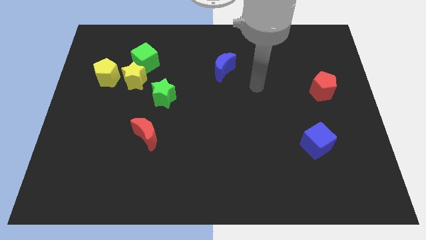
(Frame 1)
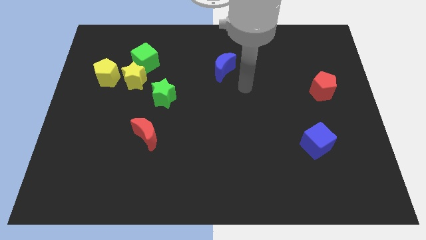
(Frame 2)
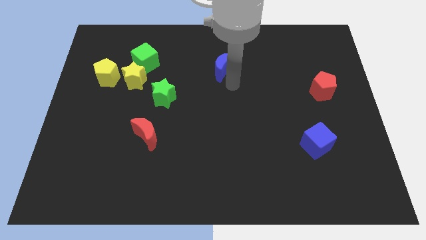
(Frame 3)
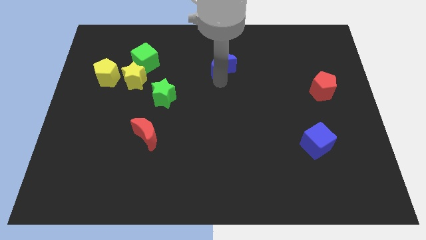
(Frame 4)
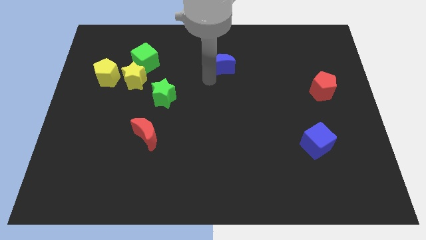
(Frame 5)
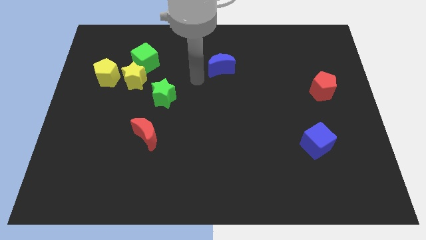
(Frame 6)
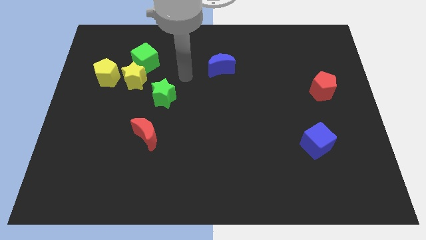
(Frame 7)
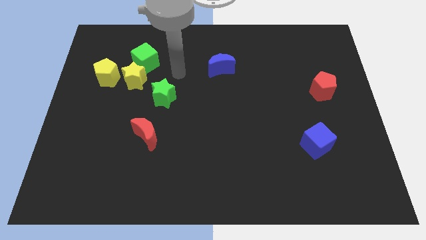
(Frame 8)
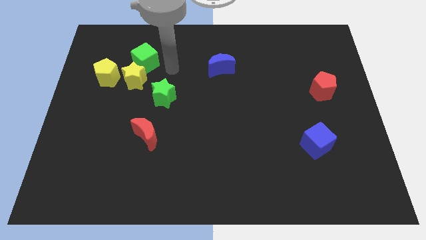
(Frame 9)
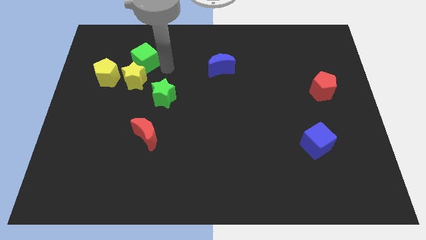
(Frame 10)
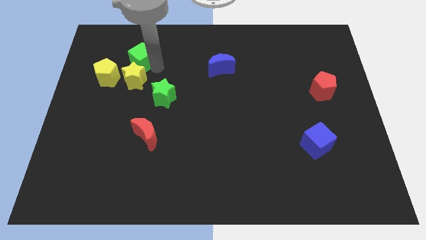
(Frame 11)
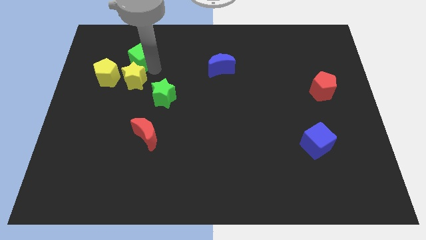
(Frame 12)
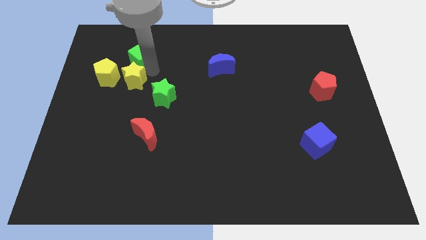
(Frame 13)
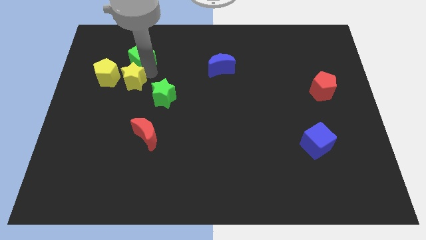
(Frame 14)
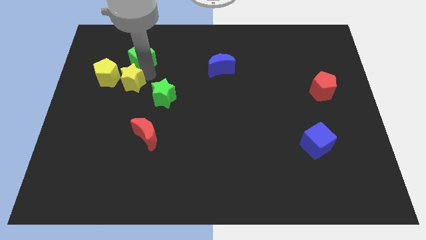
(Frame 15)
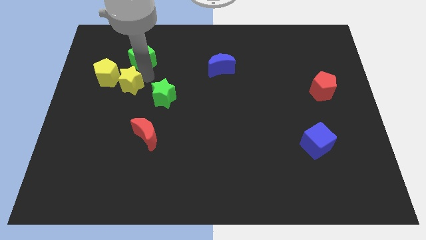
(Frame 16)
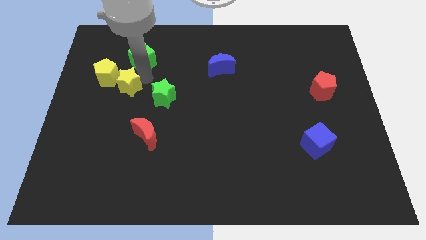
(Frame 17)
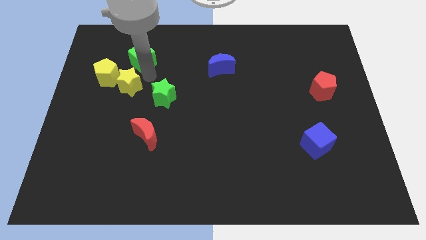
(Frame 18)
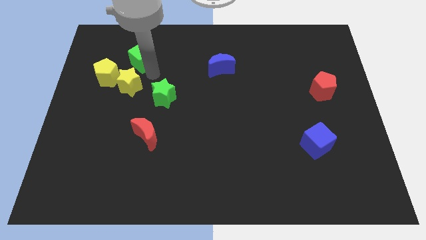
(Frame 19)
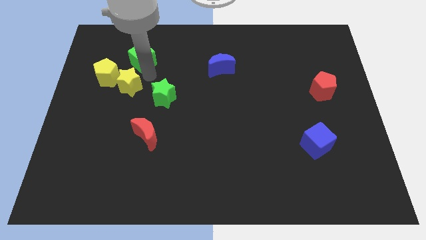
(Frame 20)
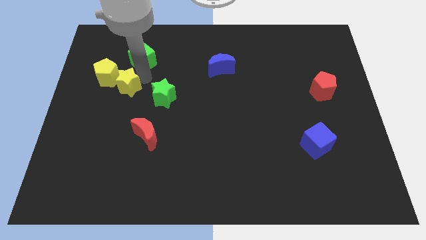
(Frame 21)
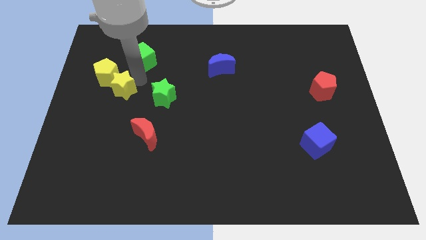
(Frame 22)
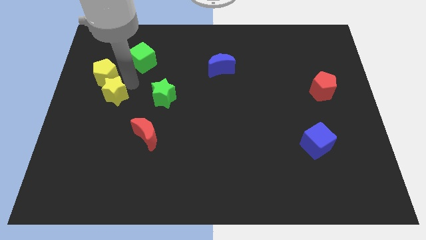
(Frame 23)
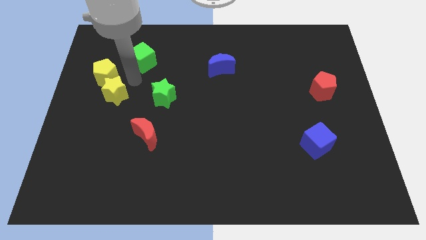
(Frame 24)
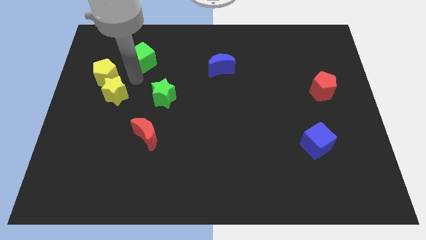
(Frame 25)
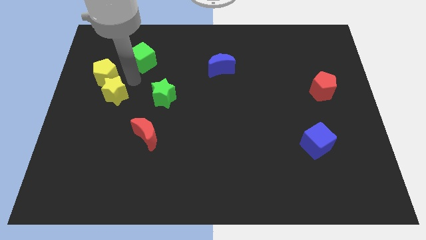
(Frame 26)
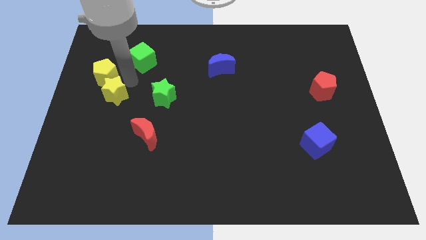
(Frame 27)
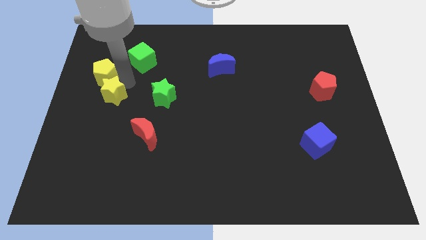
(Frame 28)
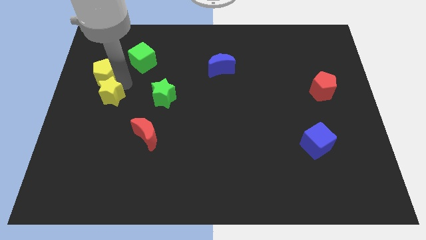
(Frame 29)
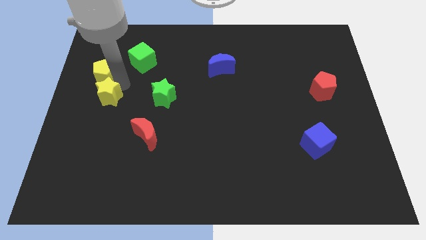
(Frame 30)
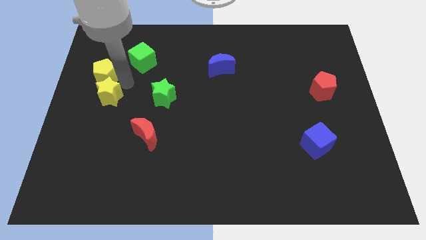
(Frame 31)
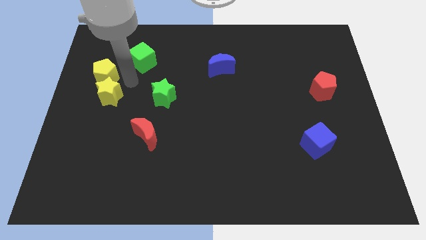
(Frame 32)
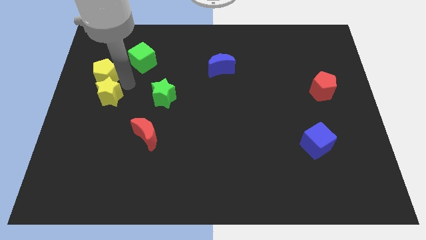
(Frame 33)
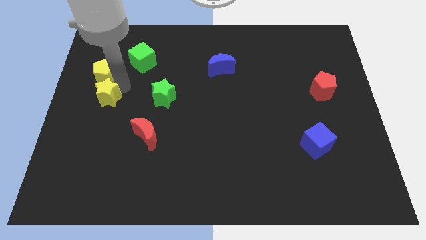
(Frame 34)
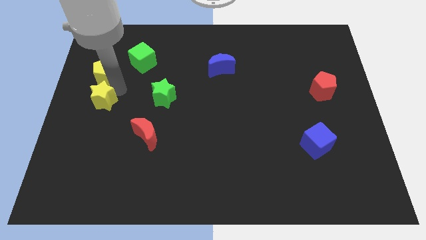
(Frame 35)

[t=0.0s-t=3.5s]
move the yellow star away from the green cube, yellow pentagon, and green star

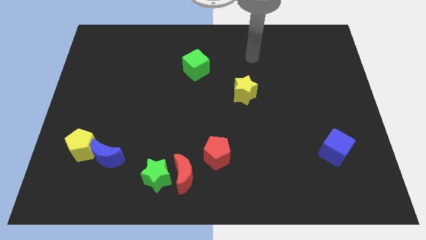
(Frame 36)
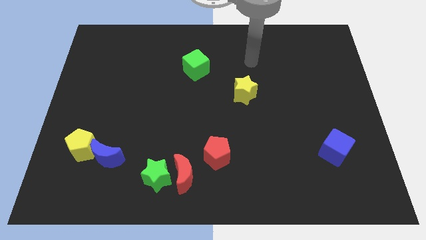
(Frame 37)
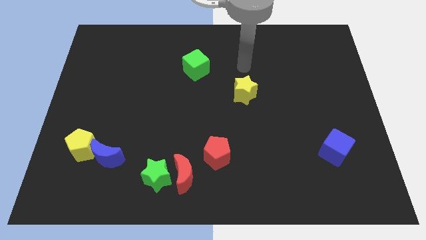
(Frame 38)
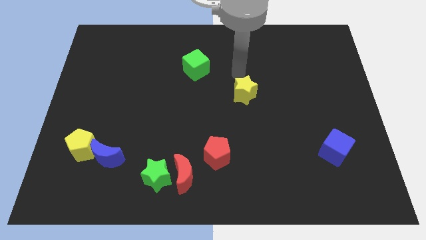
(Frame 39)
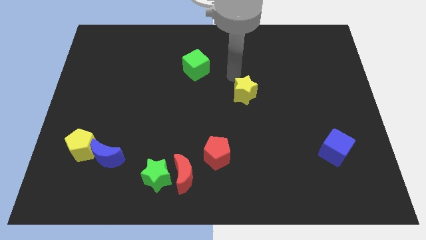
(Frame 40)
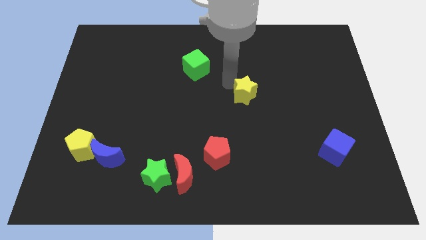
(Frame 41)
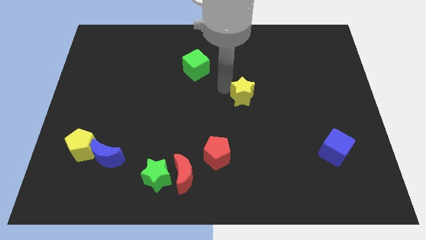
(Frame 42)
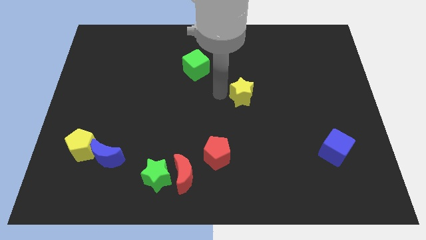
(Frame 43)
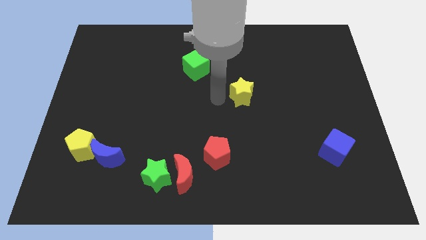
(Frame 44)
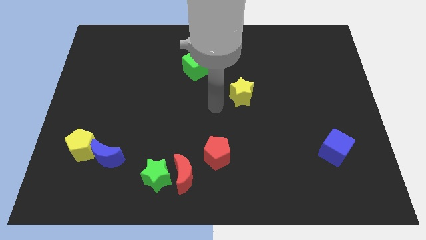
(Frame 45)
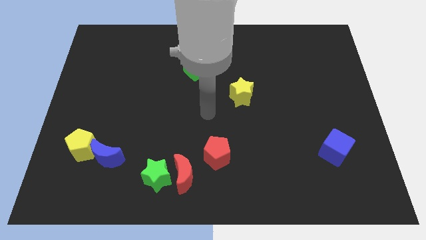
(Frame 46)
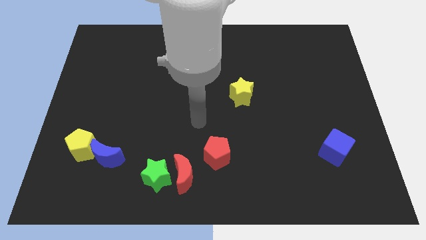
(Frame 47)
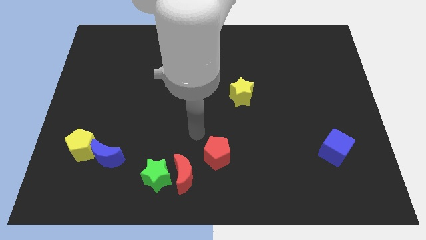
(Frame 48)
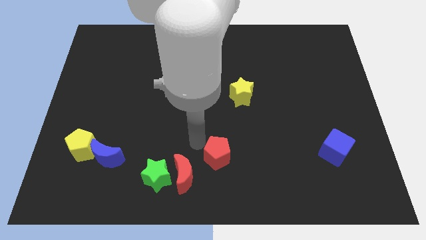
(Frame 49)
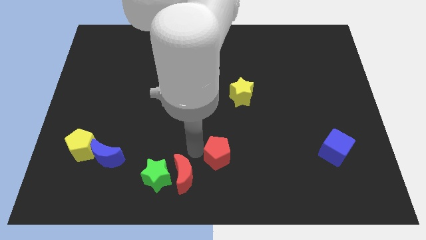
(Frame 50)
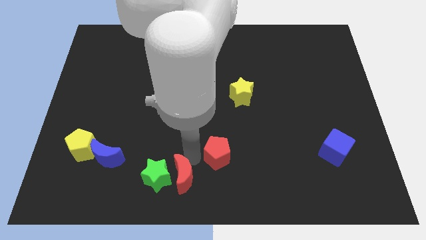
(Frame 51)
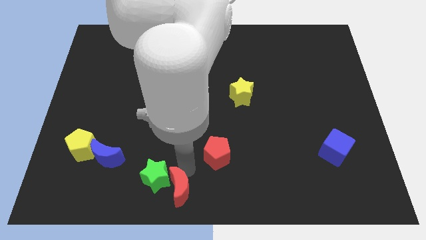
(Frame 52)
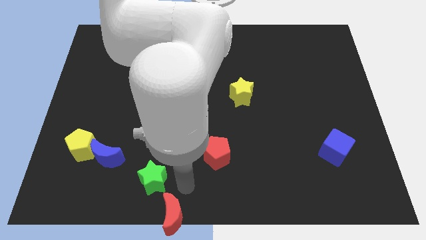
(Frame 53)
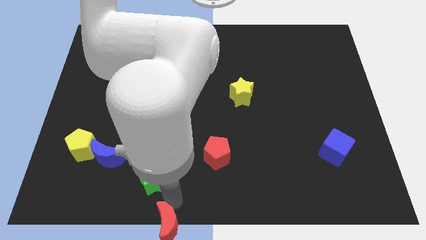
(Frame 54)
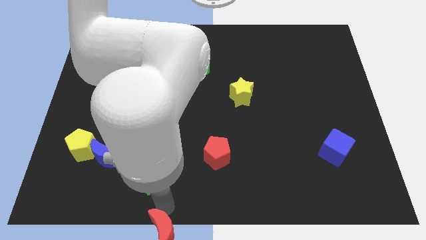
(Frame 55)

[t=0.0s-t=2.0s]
move the green star away from the red moon

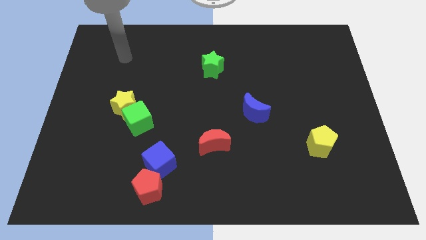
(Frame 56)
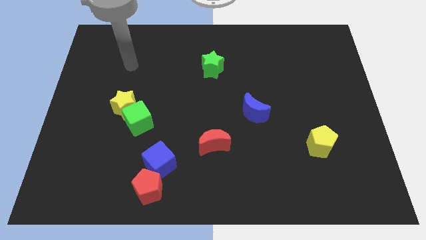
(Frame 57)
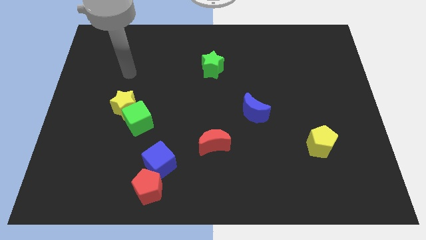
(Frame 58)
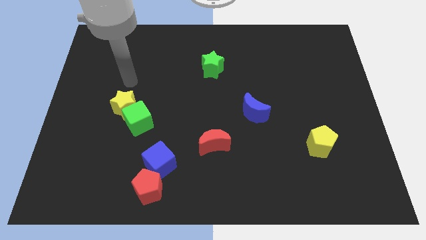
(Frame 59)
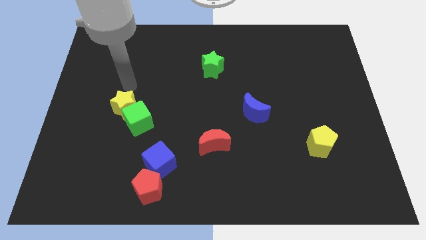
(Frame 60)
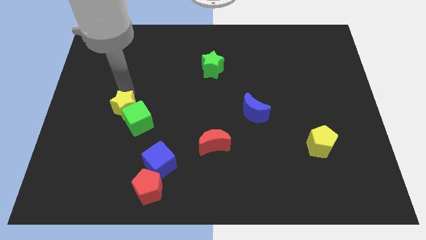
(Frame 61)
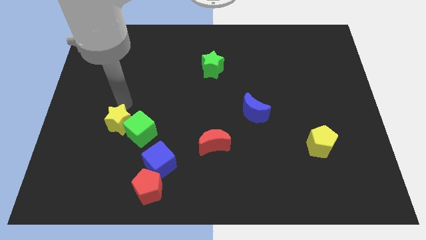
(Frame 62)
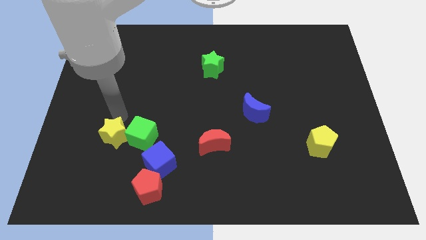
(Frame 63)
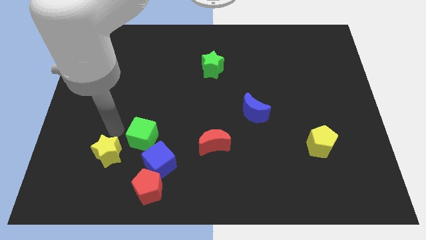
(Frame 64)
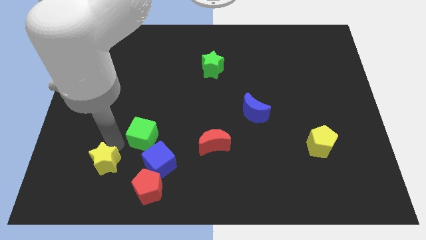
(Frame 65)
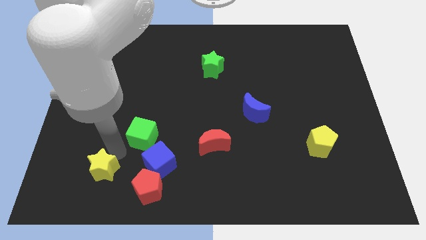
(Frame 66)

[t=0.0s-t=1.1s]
pull the green cube apart from the yellow star

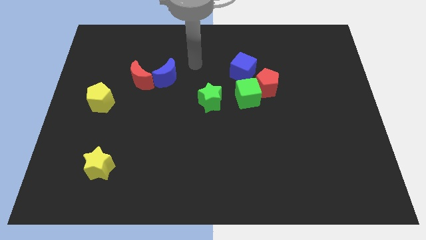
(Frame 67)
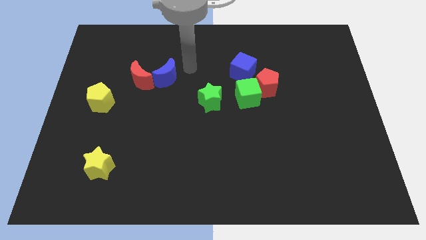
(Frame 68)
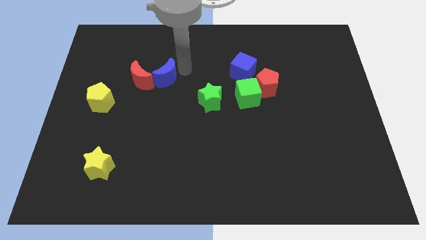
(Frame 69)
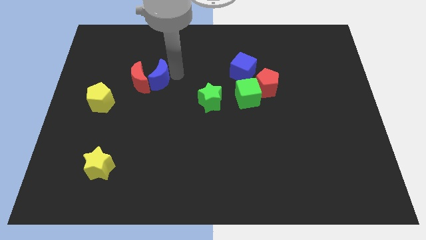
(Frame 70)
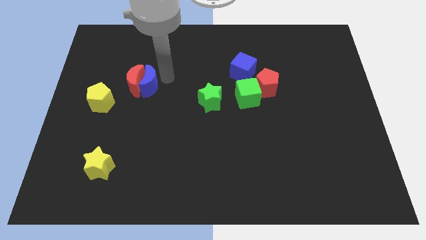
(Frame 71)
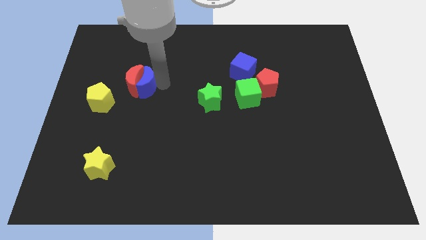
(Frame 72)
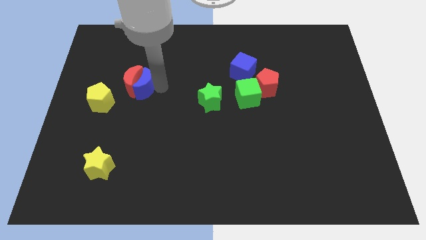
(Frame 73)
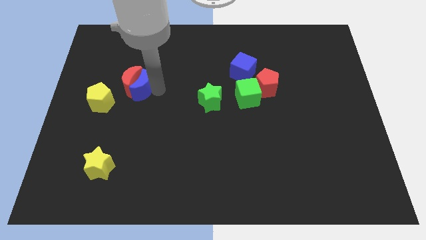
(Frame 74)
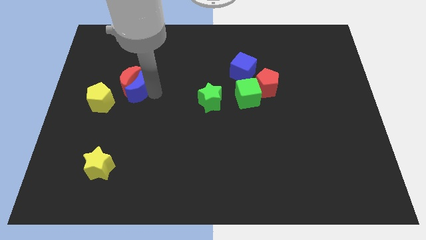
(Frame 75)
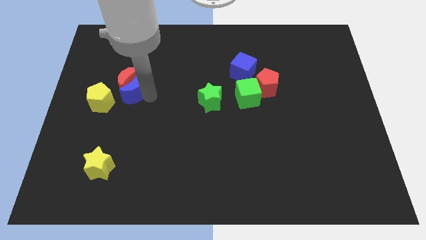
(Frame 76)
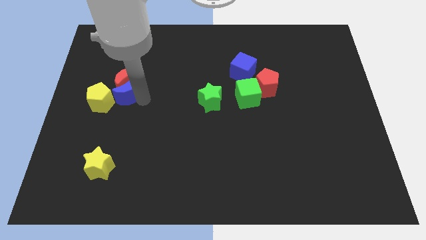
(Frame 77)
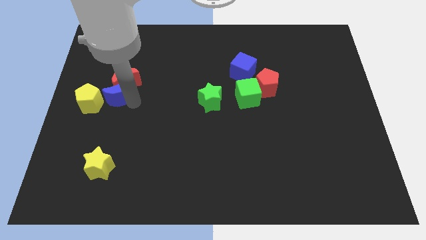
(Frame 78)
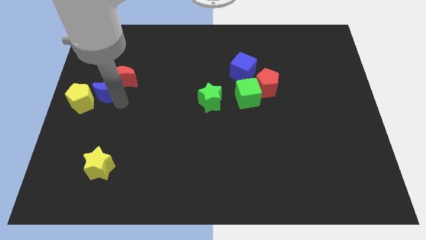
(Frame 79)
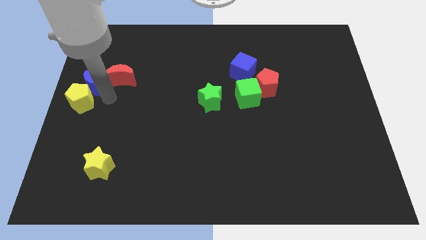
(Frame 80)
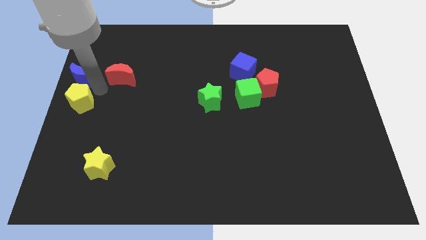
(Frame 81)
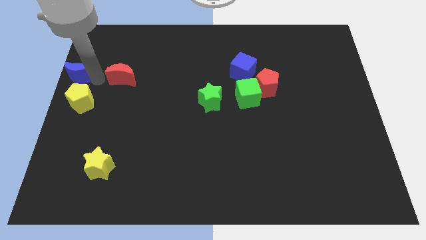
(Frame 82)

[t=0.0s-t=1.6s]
pull the red moon apart from the blue moon

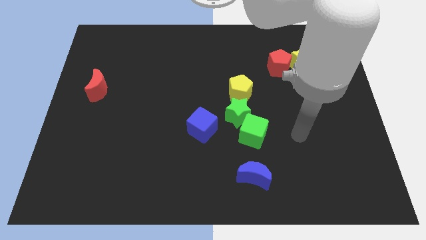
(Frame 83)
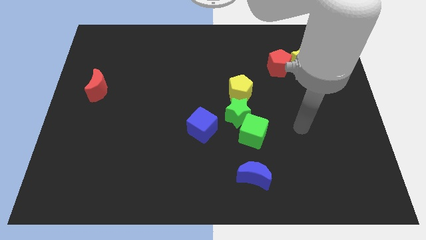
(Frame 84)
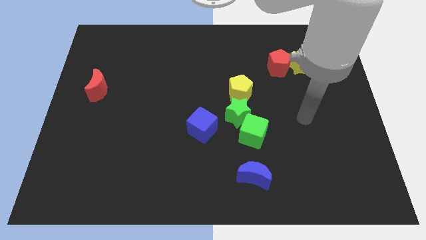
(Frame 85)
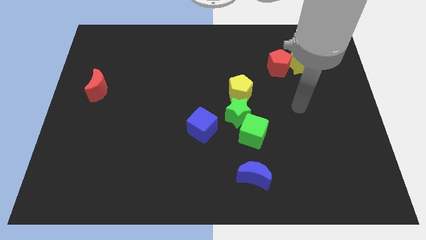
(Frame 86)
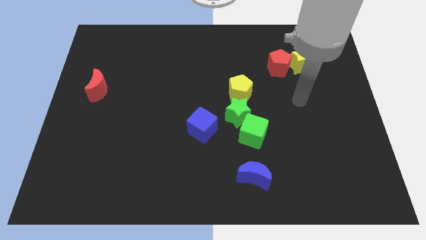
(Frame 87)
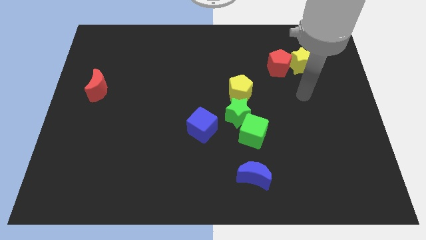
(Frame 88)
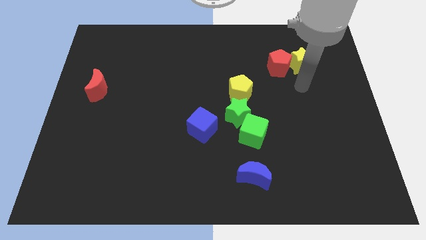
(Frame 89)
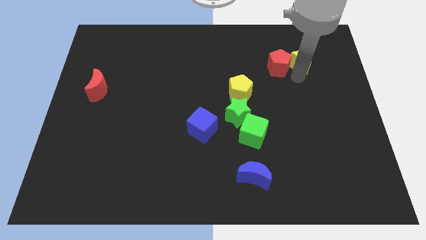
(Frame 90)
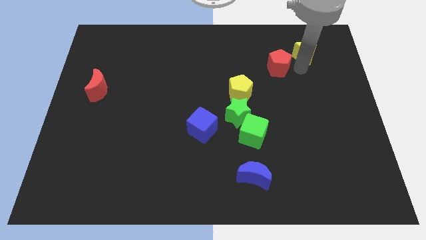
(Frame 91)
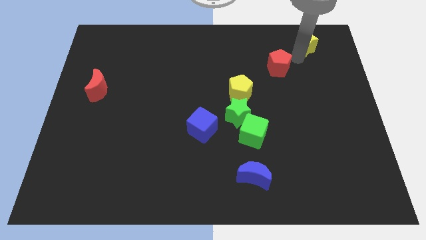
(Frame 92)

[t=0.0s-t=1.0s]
separate the red pentagon from the yellow star
